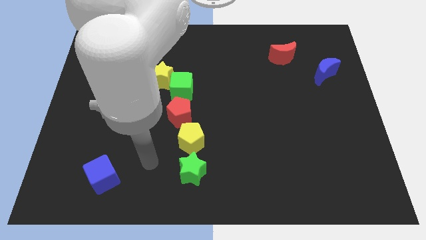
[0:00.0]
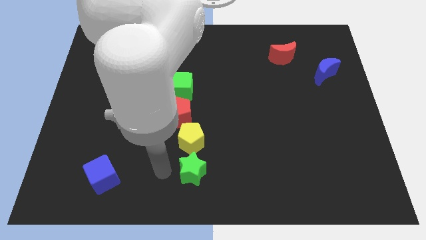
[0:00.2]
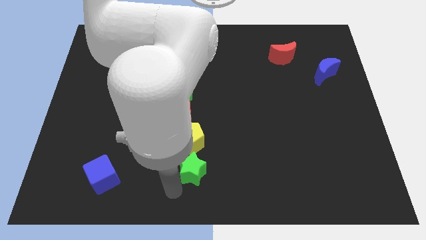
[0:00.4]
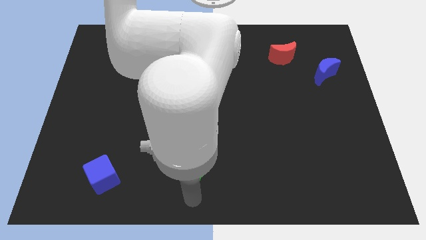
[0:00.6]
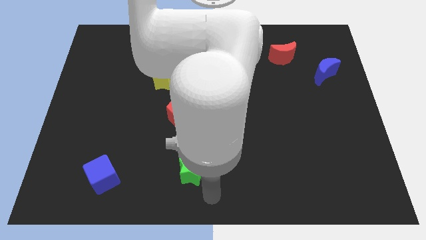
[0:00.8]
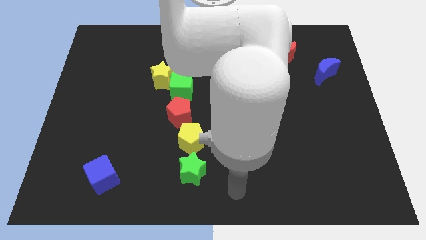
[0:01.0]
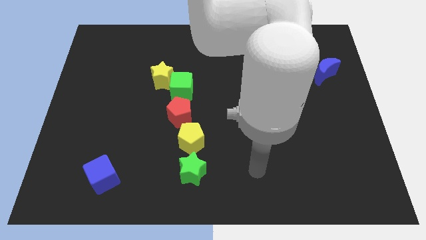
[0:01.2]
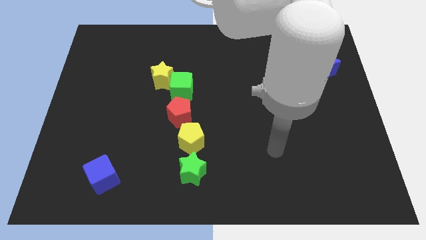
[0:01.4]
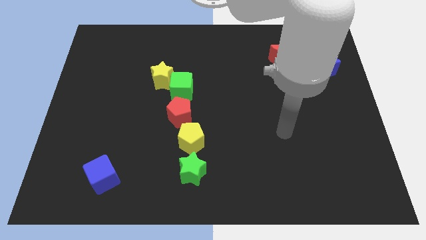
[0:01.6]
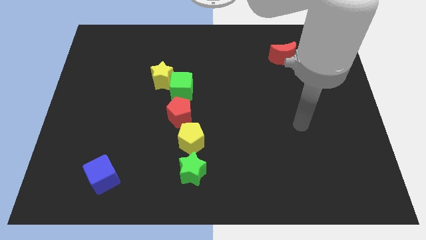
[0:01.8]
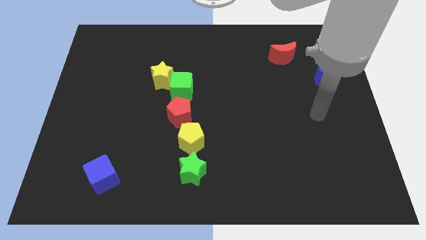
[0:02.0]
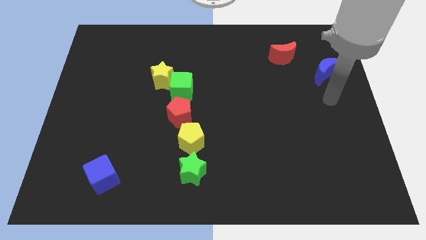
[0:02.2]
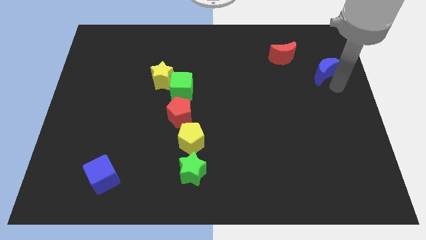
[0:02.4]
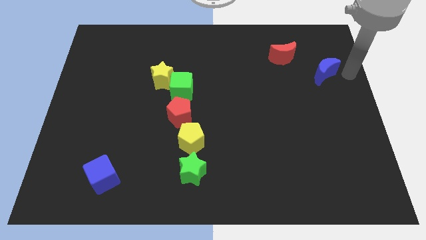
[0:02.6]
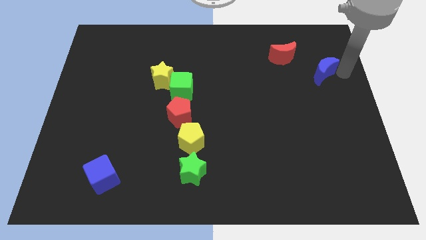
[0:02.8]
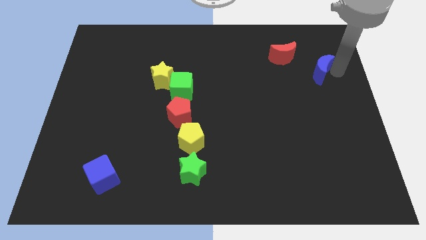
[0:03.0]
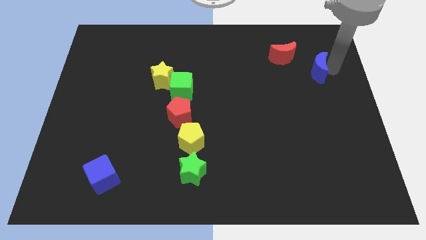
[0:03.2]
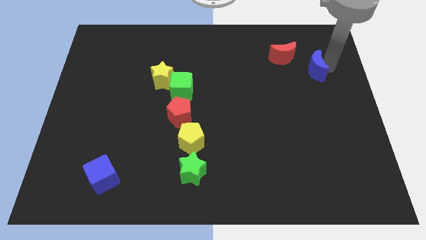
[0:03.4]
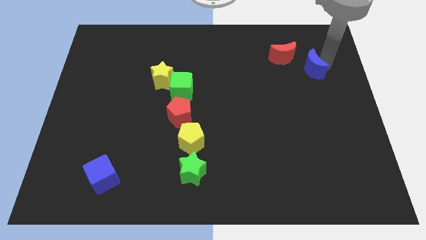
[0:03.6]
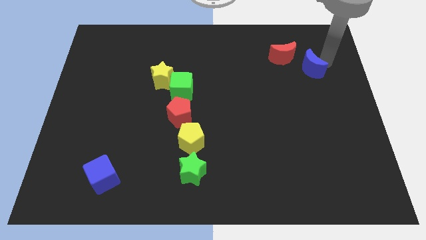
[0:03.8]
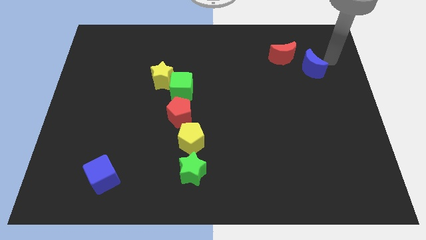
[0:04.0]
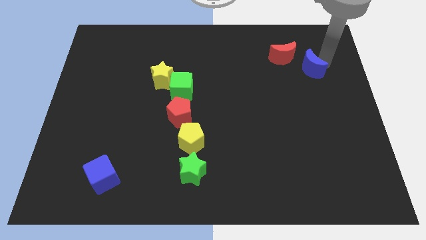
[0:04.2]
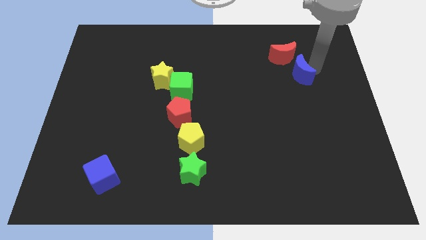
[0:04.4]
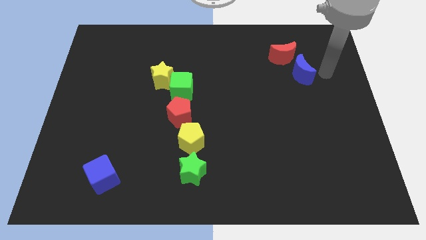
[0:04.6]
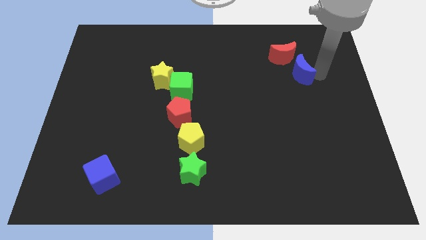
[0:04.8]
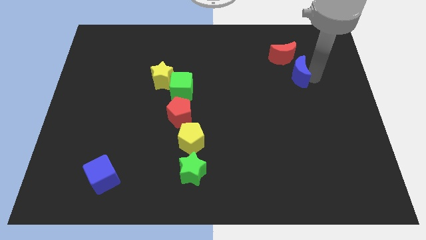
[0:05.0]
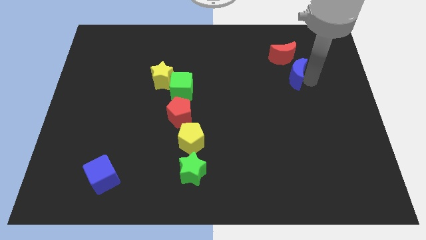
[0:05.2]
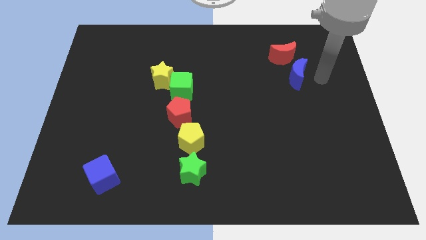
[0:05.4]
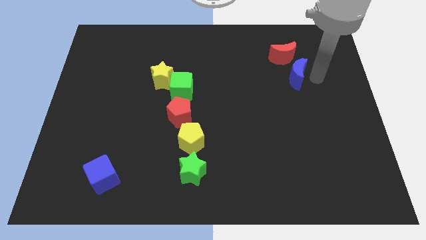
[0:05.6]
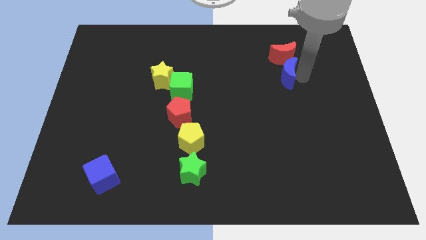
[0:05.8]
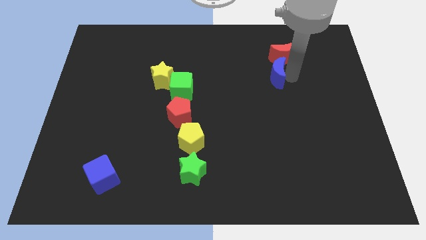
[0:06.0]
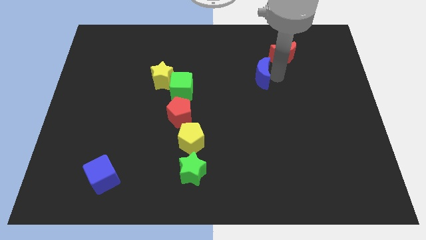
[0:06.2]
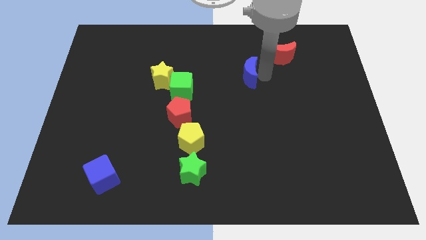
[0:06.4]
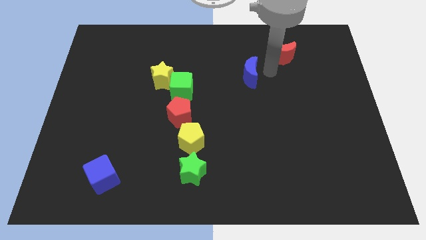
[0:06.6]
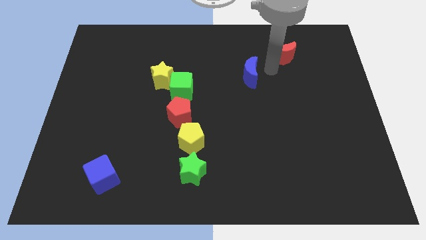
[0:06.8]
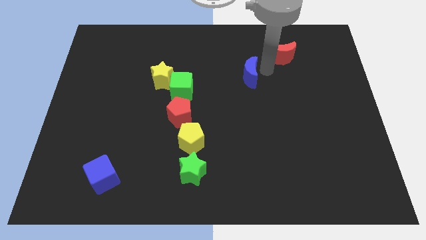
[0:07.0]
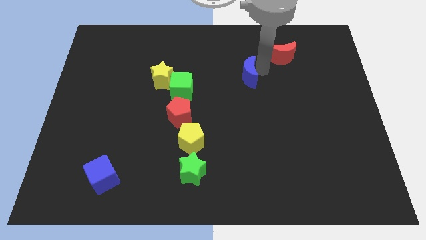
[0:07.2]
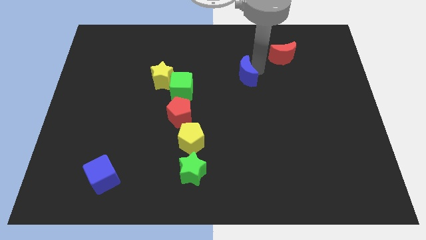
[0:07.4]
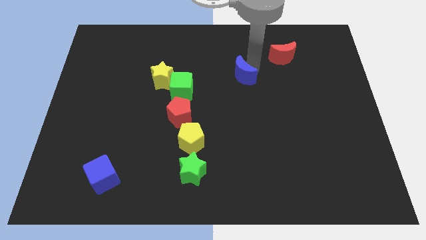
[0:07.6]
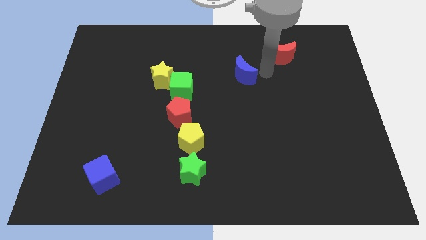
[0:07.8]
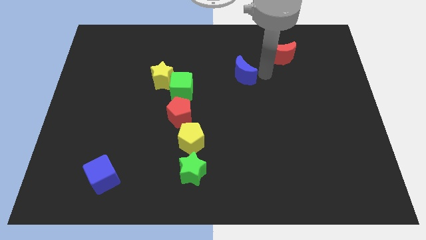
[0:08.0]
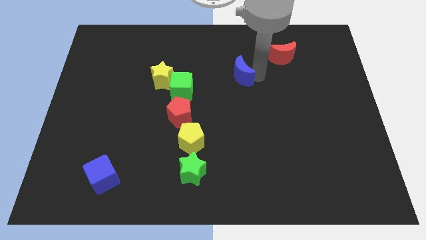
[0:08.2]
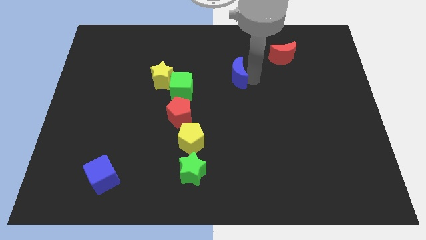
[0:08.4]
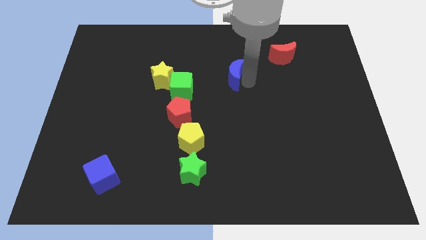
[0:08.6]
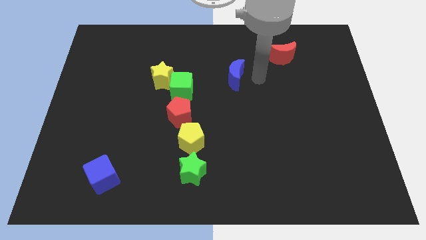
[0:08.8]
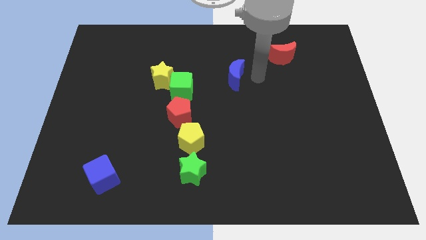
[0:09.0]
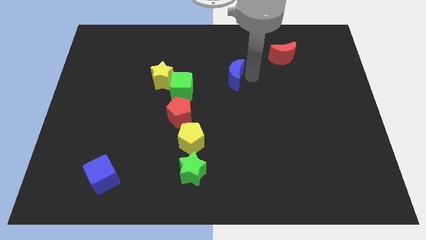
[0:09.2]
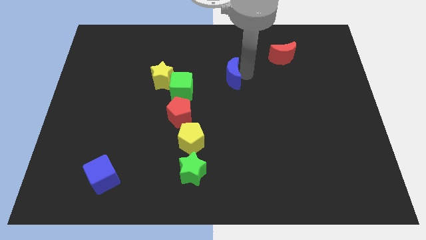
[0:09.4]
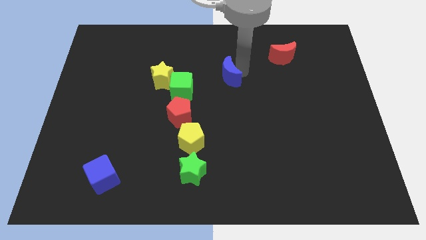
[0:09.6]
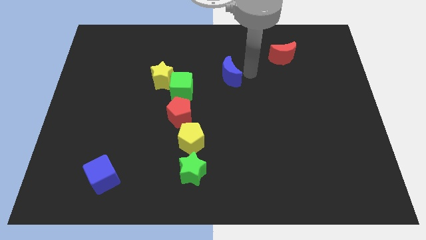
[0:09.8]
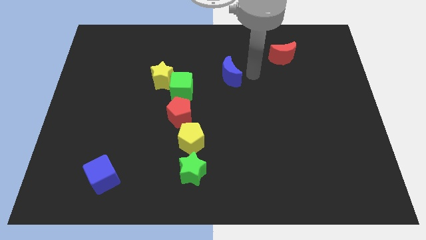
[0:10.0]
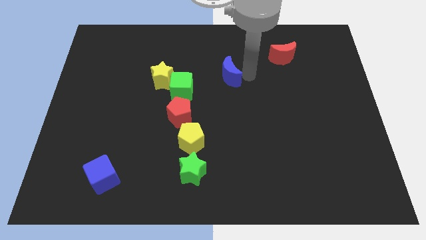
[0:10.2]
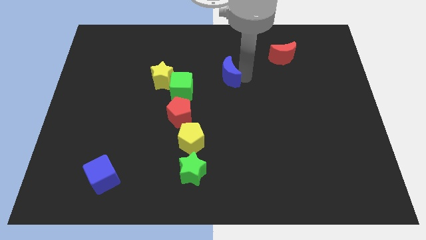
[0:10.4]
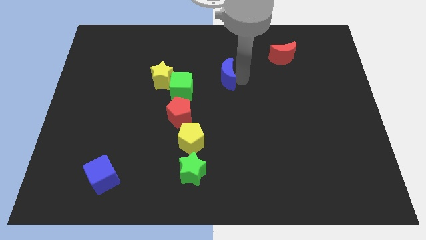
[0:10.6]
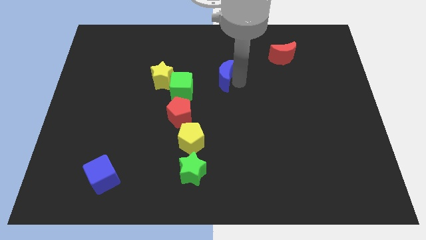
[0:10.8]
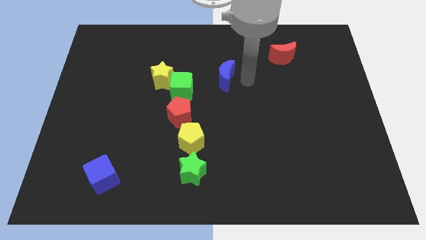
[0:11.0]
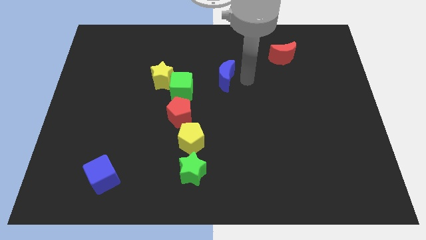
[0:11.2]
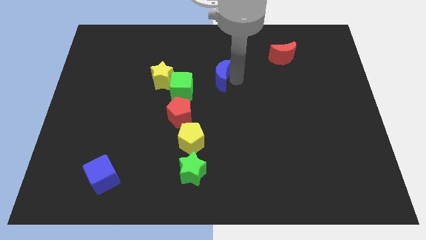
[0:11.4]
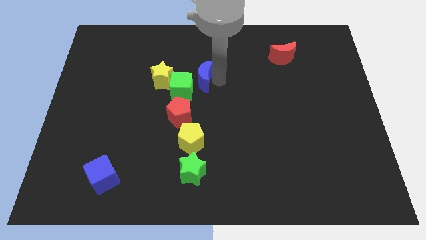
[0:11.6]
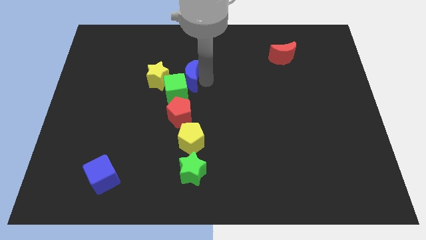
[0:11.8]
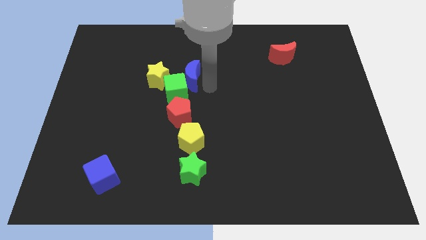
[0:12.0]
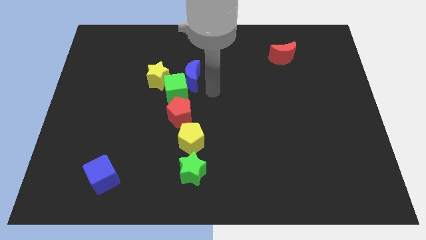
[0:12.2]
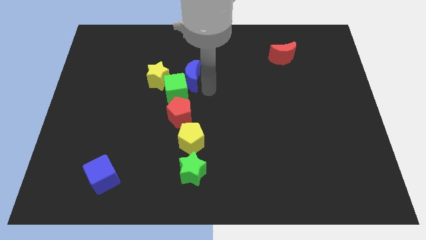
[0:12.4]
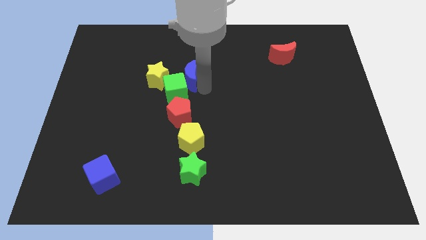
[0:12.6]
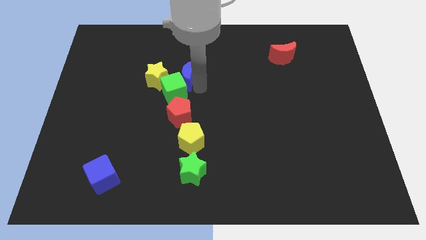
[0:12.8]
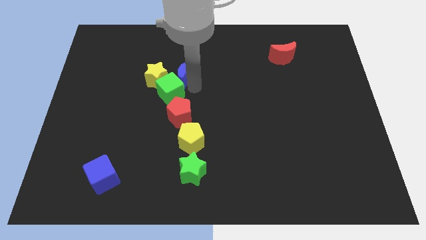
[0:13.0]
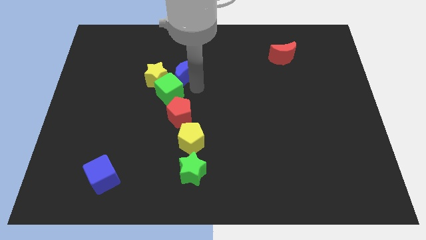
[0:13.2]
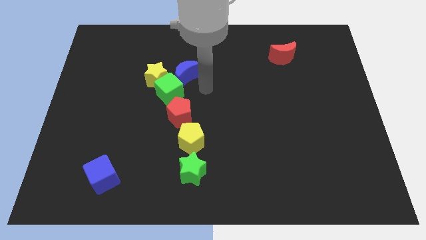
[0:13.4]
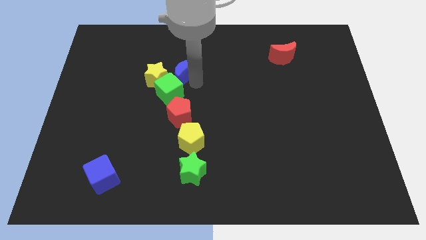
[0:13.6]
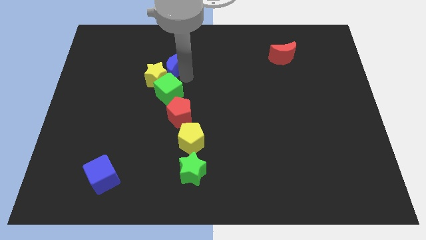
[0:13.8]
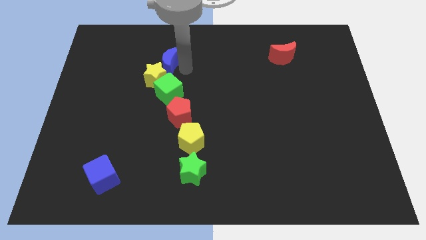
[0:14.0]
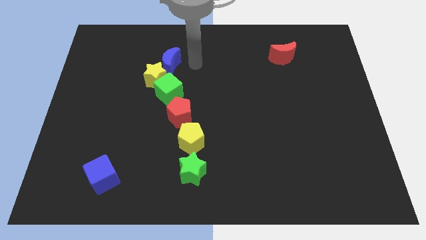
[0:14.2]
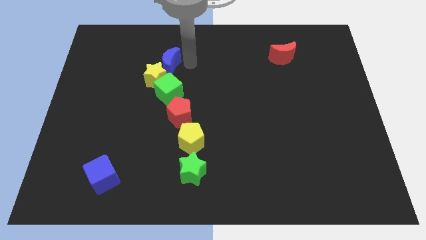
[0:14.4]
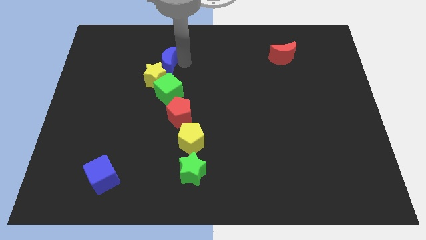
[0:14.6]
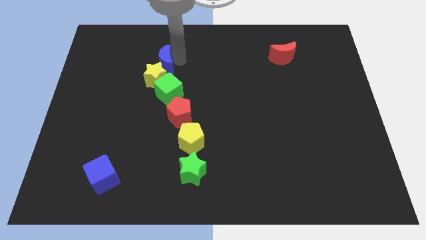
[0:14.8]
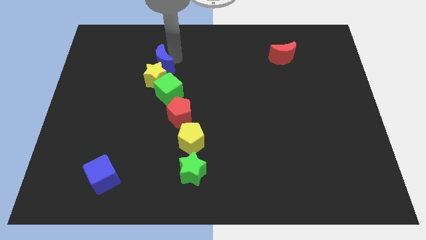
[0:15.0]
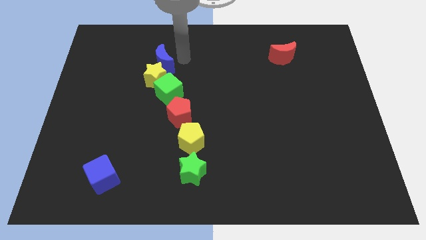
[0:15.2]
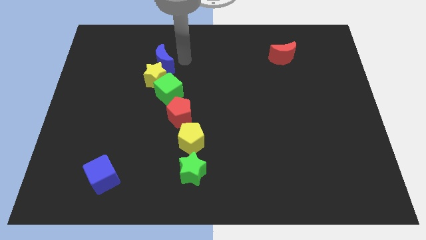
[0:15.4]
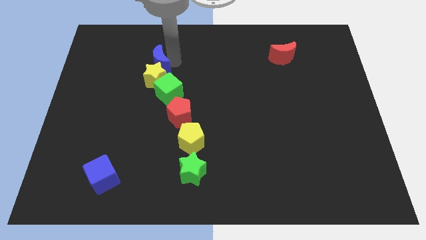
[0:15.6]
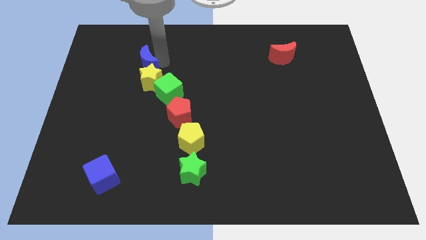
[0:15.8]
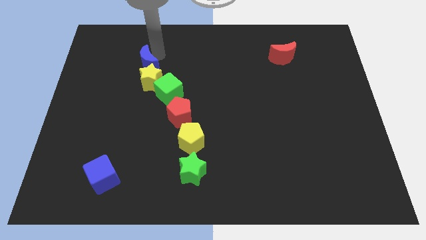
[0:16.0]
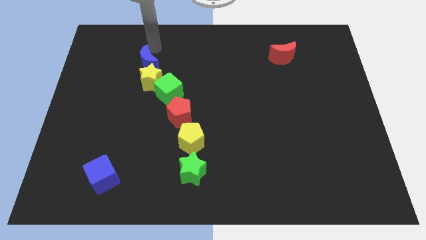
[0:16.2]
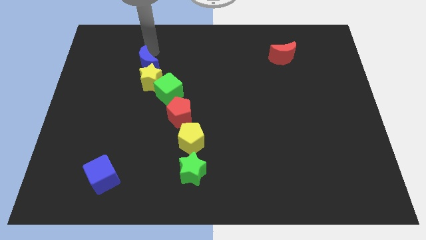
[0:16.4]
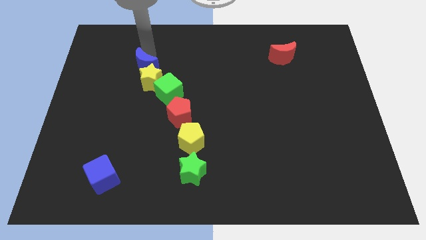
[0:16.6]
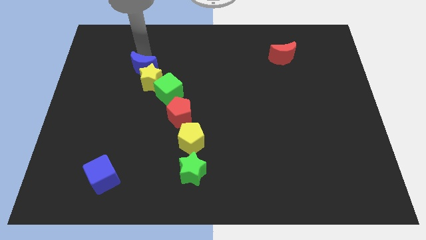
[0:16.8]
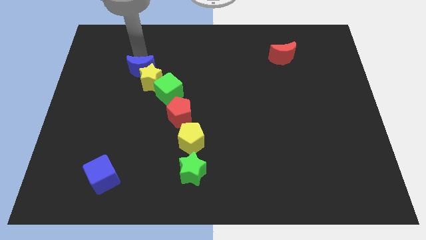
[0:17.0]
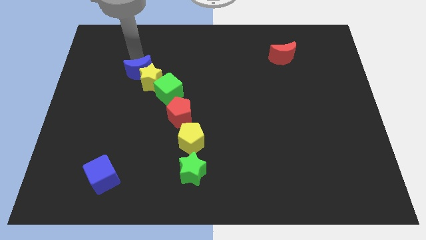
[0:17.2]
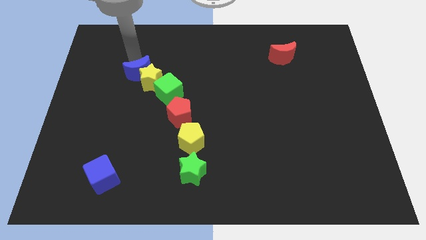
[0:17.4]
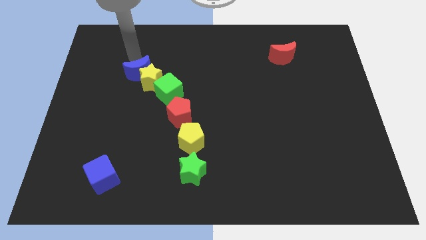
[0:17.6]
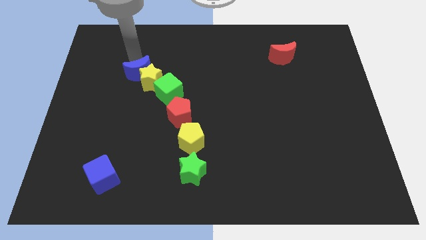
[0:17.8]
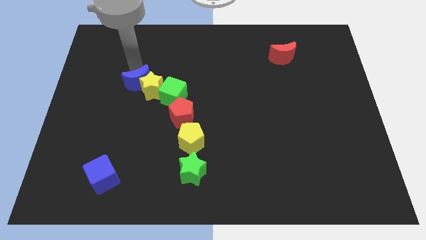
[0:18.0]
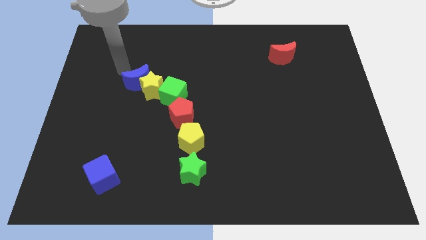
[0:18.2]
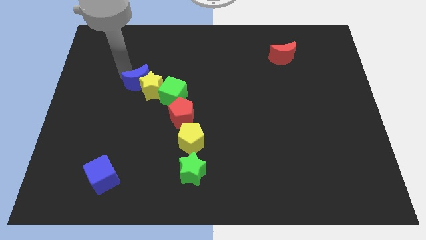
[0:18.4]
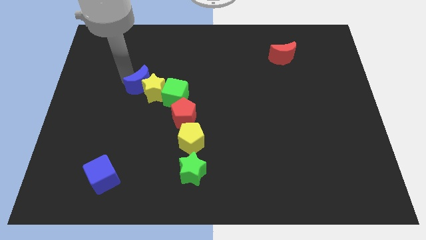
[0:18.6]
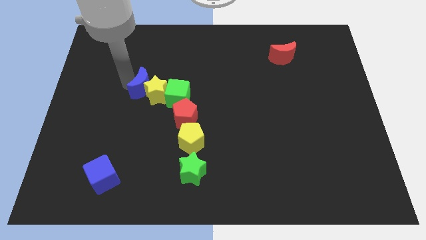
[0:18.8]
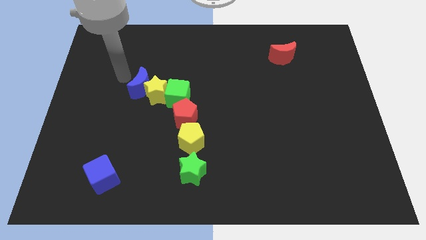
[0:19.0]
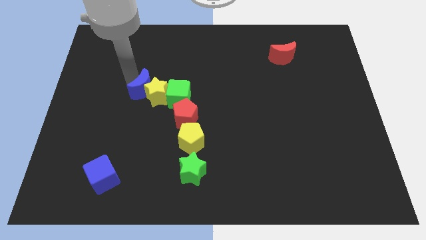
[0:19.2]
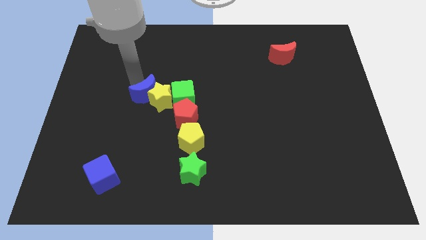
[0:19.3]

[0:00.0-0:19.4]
push the blue moon diagonally up and to the left of the red pentagon
